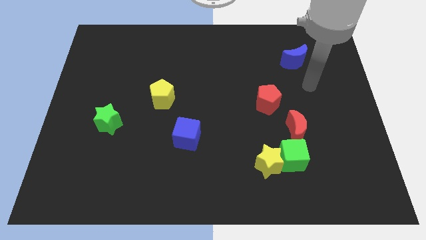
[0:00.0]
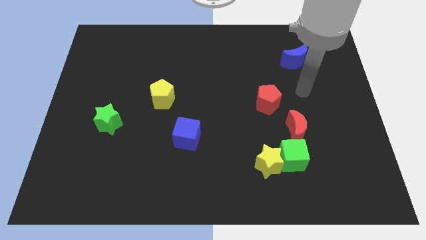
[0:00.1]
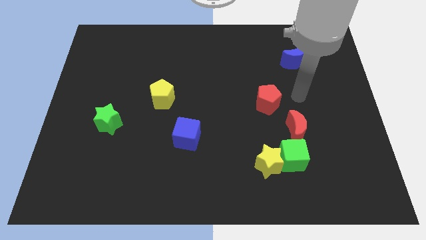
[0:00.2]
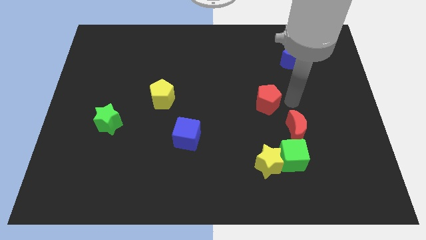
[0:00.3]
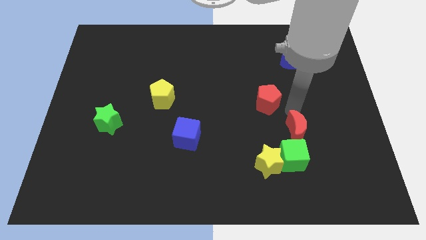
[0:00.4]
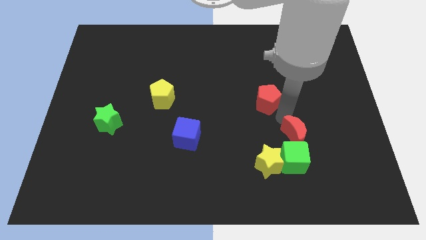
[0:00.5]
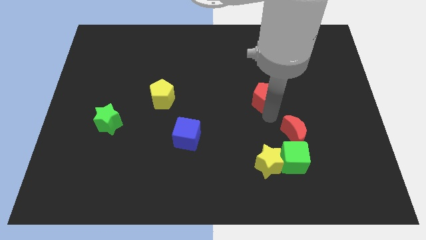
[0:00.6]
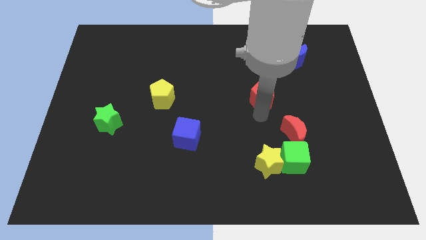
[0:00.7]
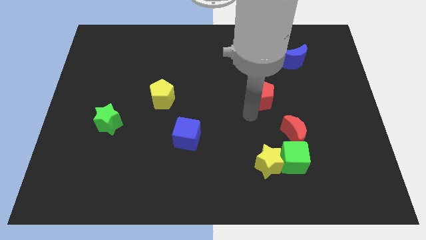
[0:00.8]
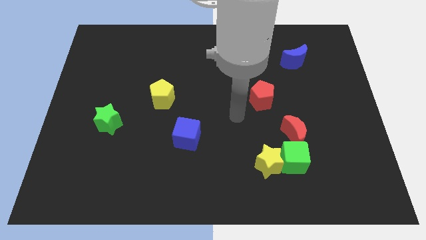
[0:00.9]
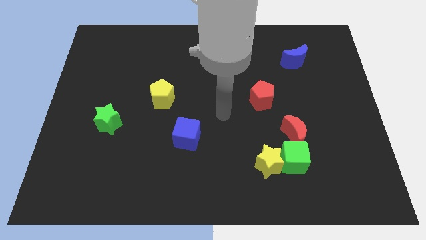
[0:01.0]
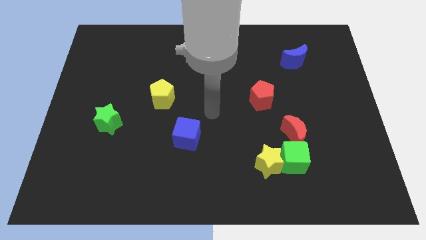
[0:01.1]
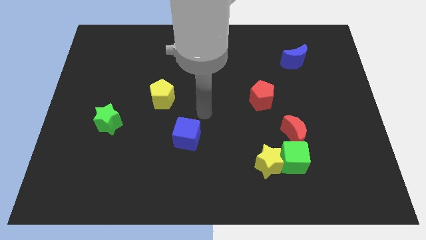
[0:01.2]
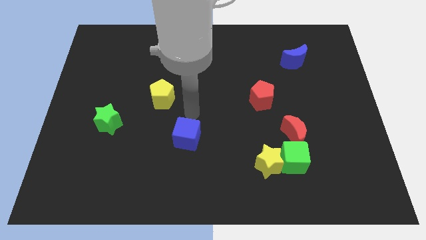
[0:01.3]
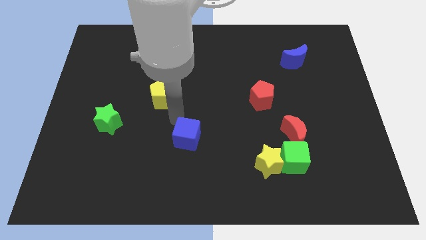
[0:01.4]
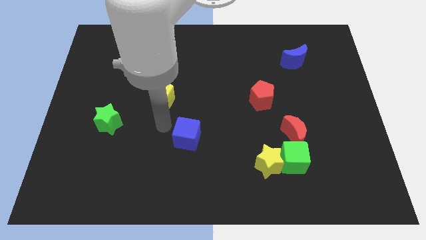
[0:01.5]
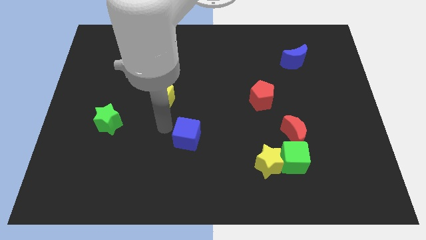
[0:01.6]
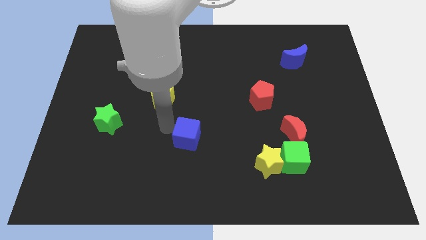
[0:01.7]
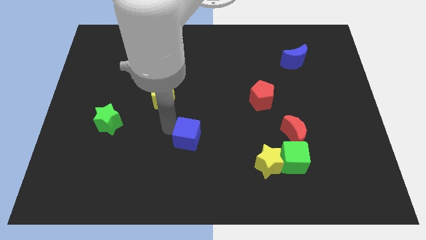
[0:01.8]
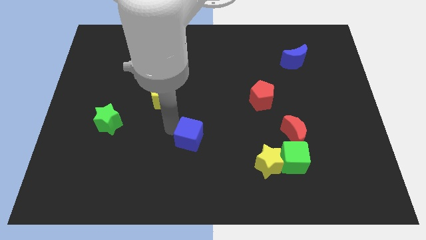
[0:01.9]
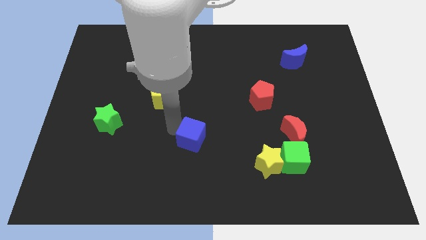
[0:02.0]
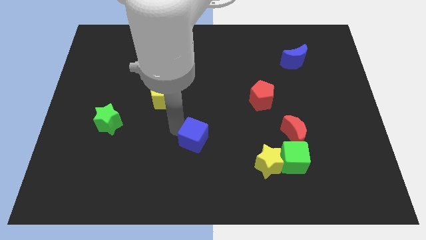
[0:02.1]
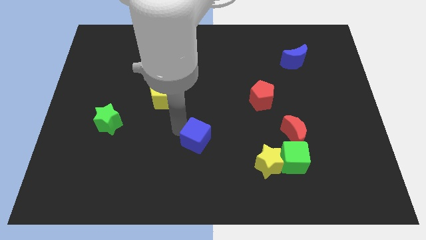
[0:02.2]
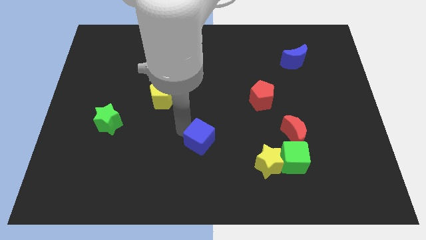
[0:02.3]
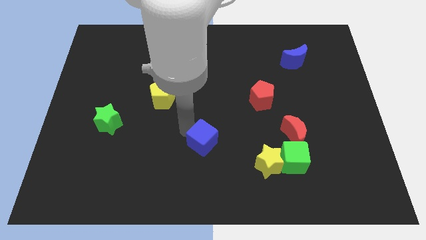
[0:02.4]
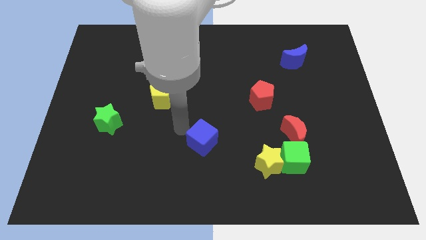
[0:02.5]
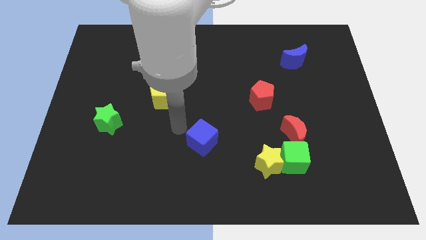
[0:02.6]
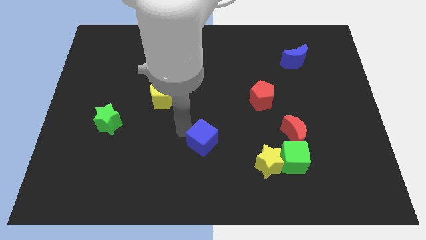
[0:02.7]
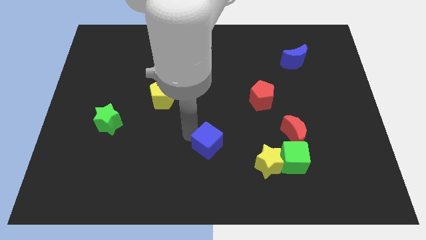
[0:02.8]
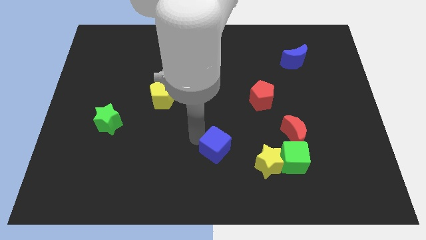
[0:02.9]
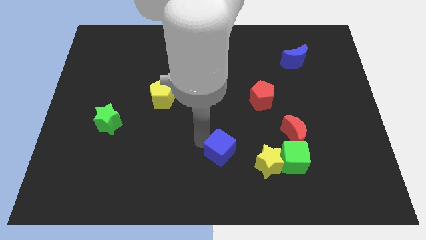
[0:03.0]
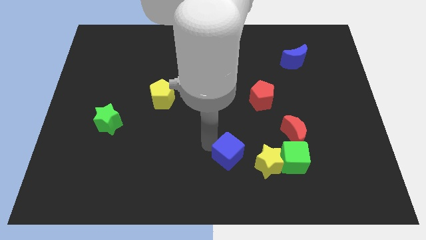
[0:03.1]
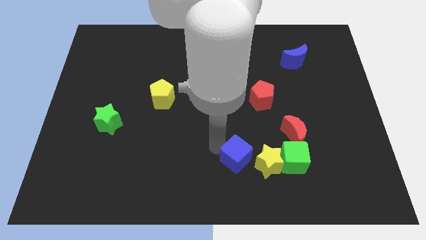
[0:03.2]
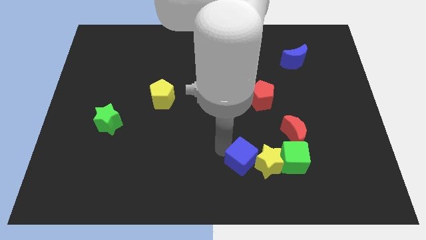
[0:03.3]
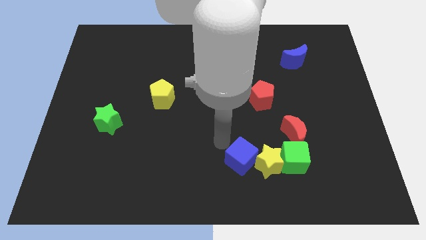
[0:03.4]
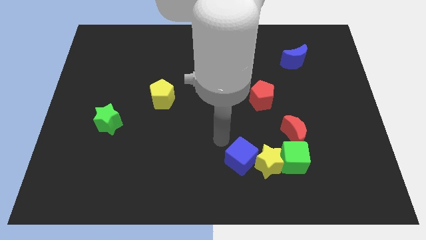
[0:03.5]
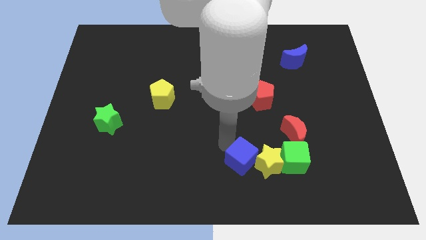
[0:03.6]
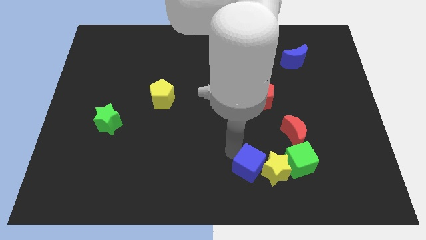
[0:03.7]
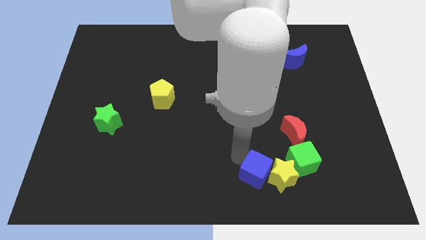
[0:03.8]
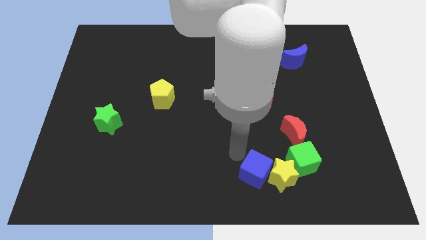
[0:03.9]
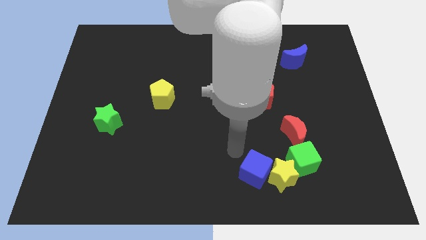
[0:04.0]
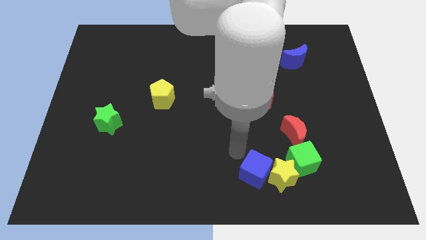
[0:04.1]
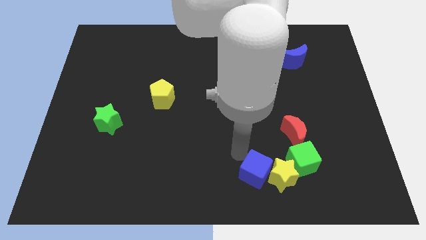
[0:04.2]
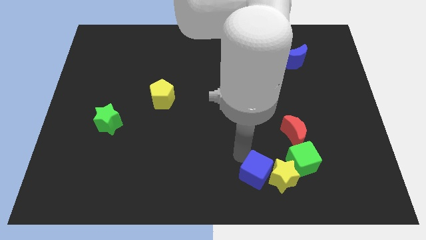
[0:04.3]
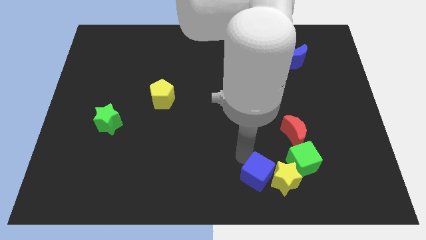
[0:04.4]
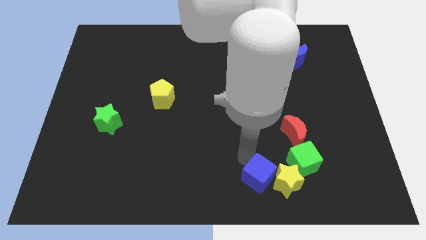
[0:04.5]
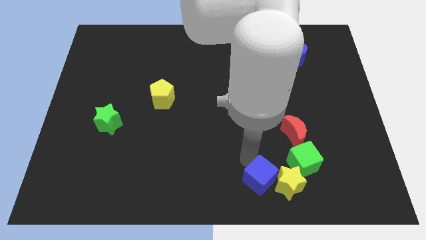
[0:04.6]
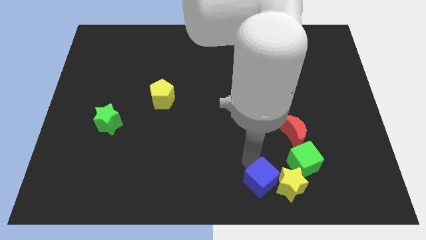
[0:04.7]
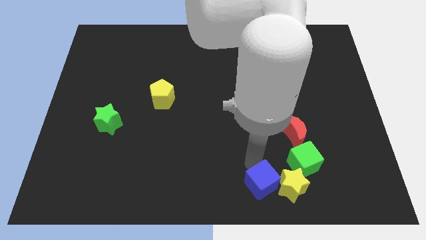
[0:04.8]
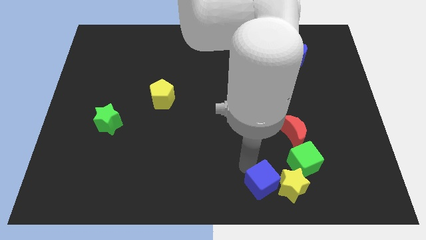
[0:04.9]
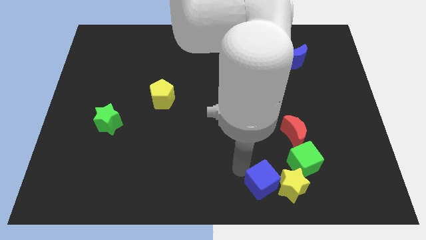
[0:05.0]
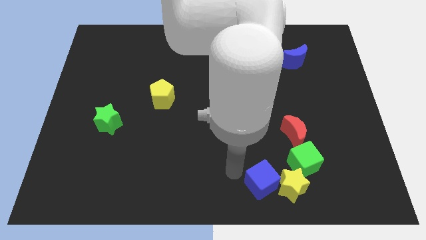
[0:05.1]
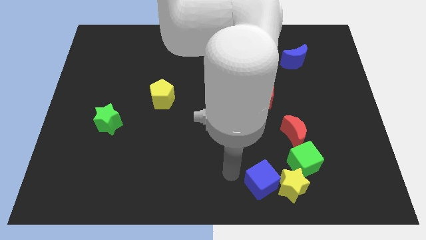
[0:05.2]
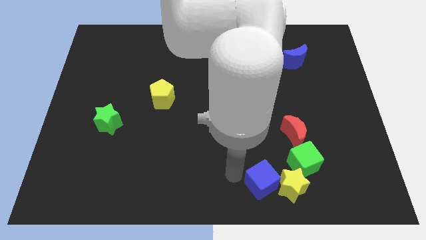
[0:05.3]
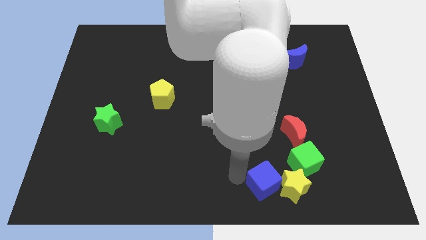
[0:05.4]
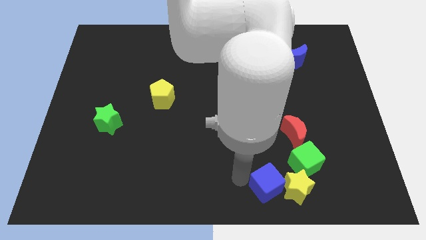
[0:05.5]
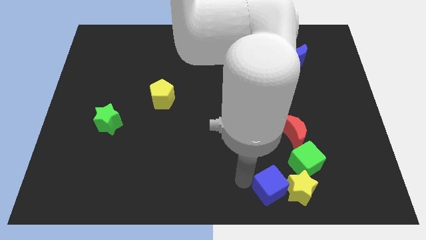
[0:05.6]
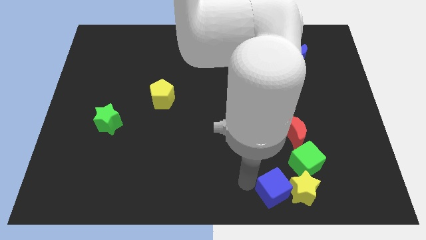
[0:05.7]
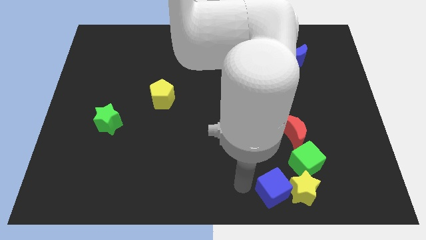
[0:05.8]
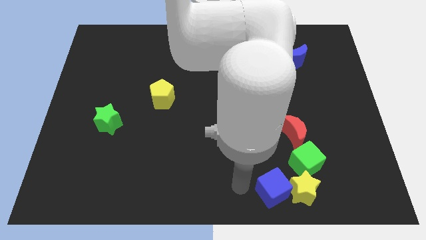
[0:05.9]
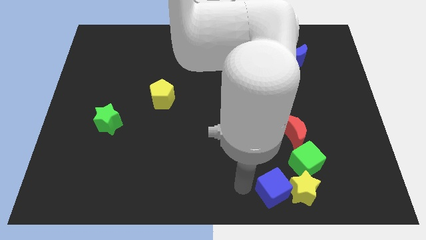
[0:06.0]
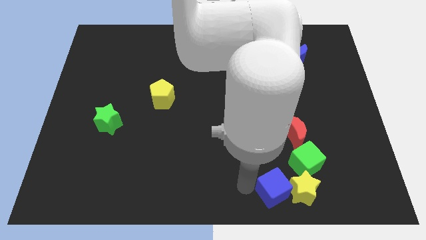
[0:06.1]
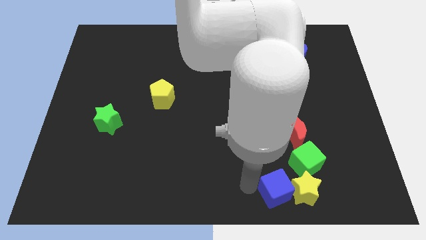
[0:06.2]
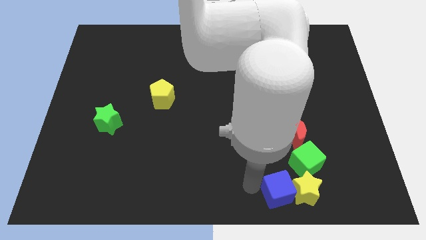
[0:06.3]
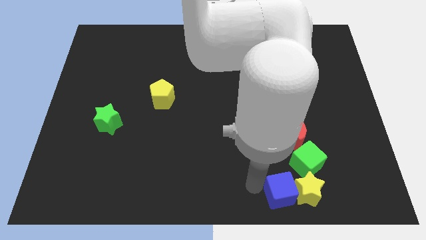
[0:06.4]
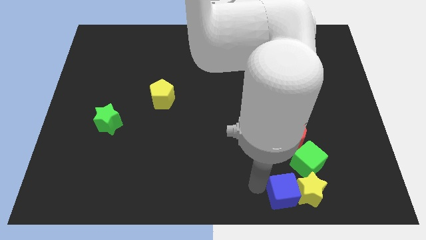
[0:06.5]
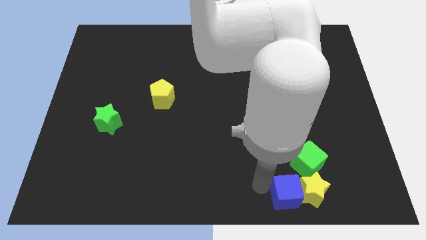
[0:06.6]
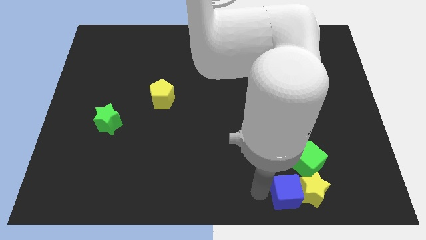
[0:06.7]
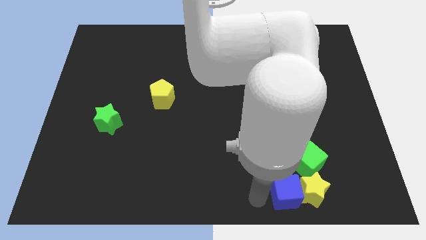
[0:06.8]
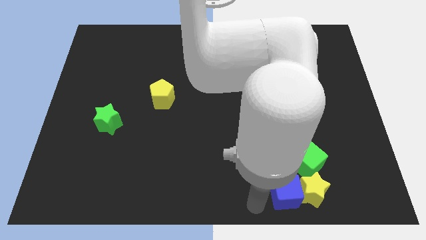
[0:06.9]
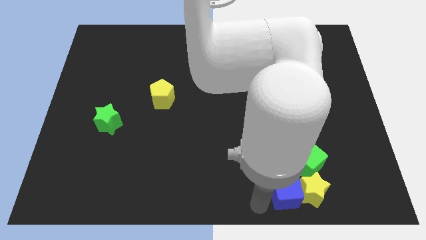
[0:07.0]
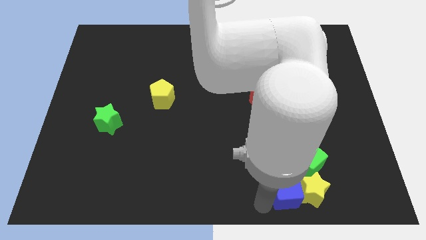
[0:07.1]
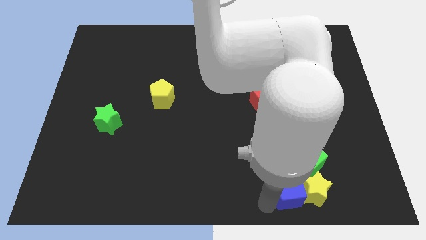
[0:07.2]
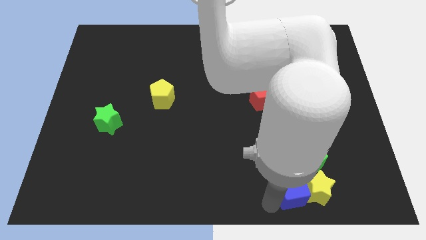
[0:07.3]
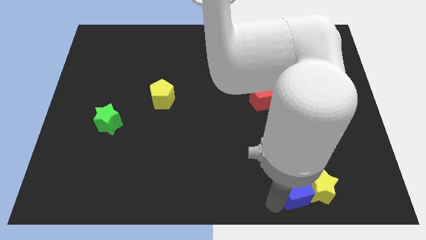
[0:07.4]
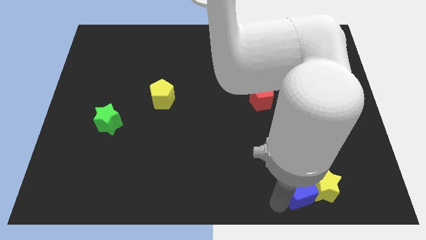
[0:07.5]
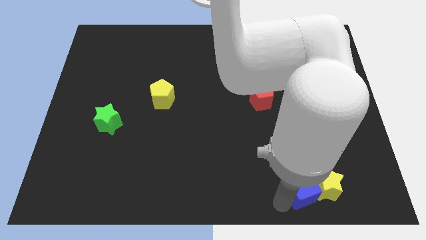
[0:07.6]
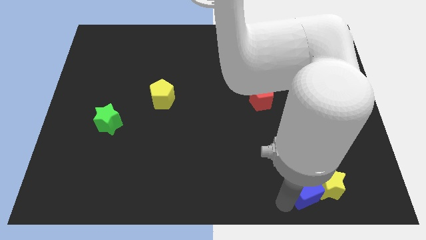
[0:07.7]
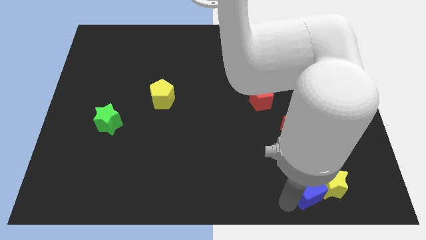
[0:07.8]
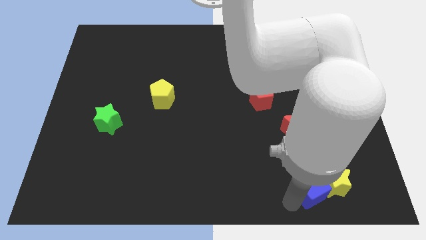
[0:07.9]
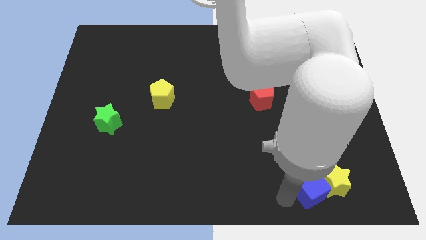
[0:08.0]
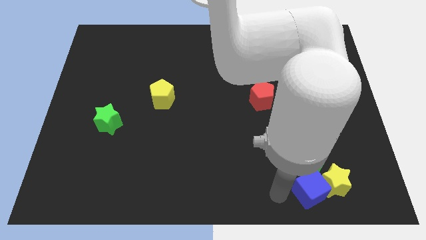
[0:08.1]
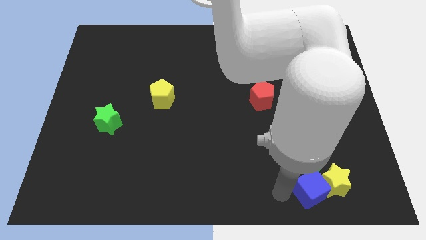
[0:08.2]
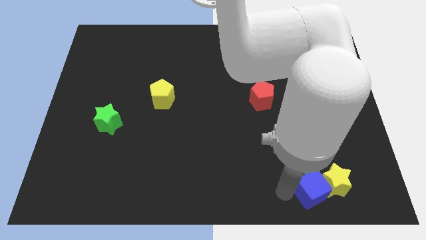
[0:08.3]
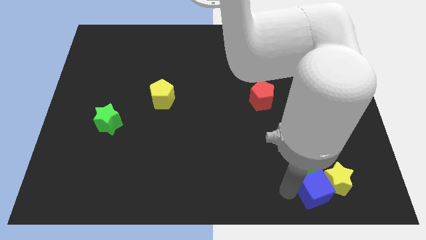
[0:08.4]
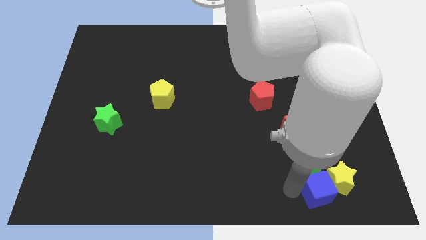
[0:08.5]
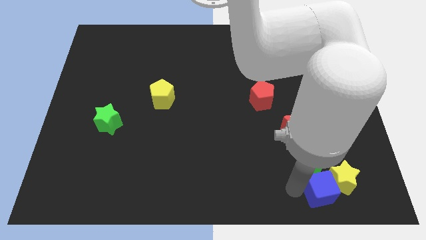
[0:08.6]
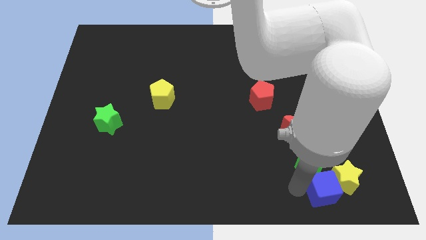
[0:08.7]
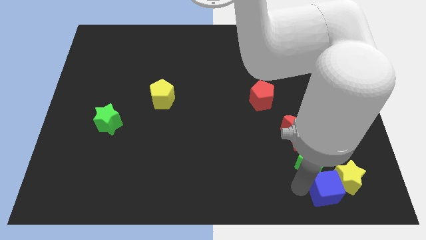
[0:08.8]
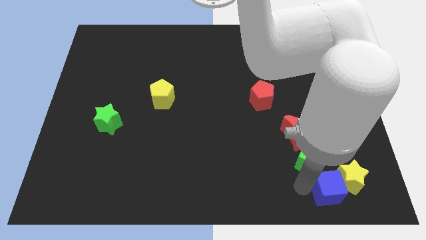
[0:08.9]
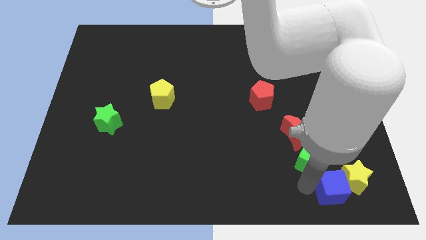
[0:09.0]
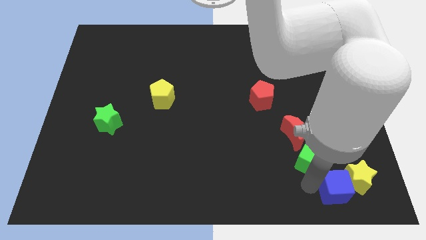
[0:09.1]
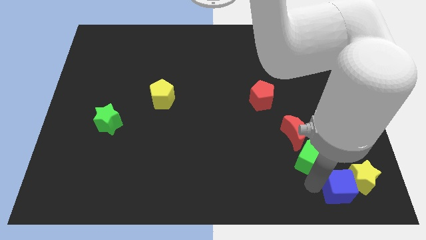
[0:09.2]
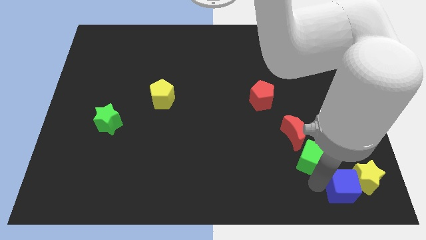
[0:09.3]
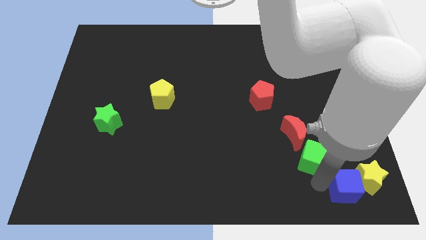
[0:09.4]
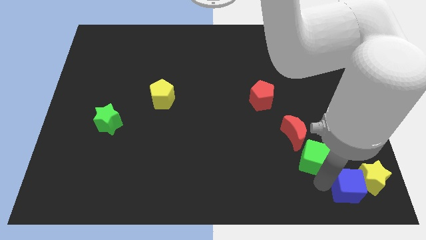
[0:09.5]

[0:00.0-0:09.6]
move the blue cube to the bottom right
